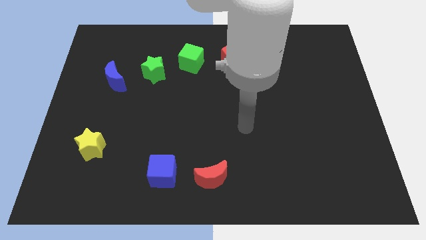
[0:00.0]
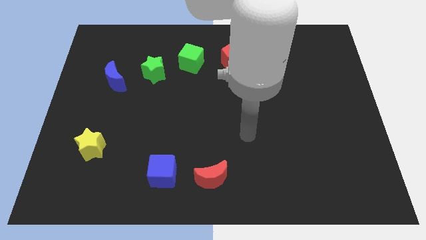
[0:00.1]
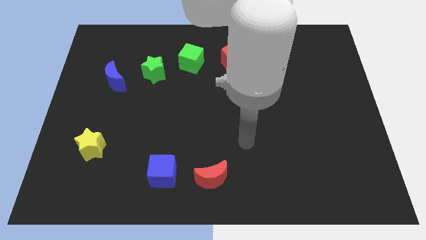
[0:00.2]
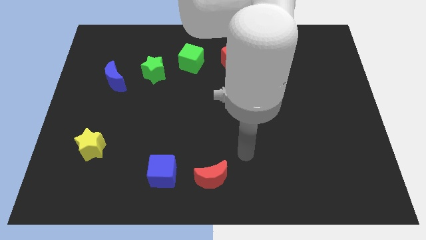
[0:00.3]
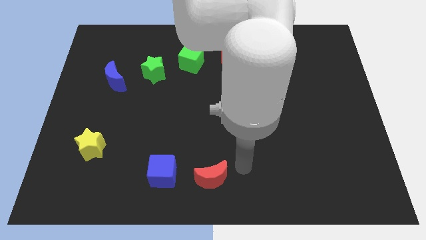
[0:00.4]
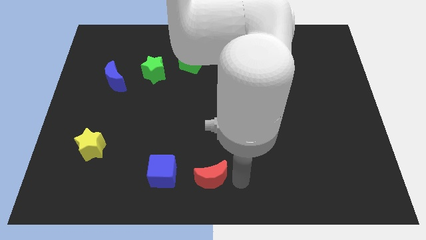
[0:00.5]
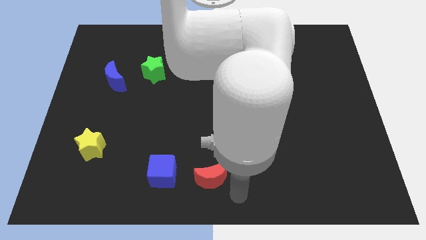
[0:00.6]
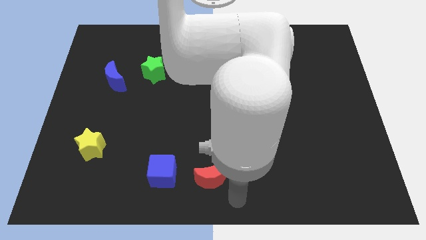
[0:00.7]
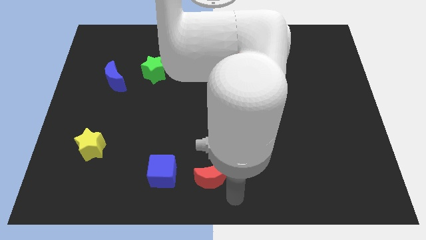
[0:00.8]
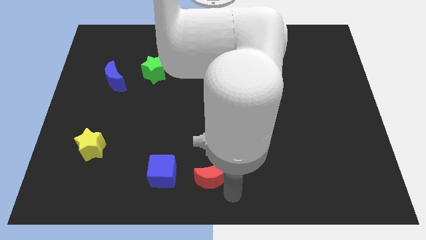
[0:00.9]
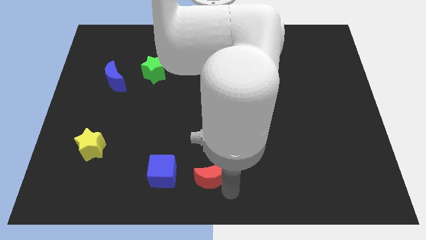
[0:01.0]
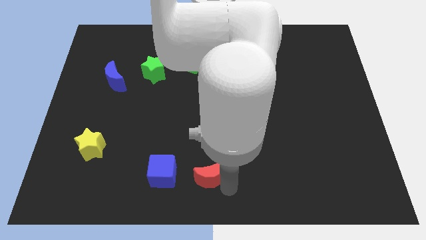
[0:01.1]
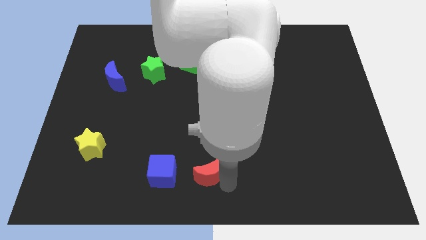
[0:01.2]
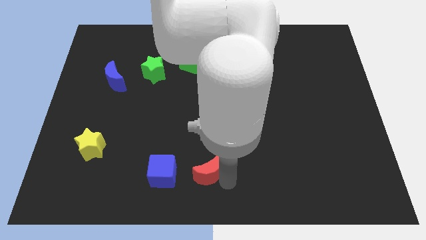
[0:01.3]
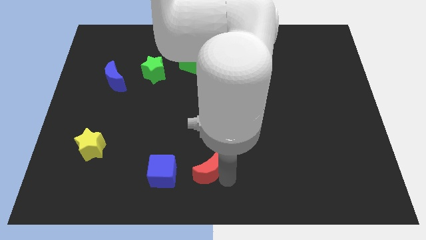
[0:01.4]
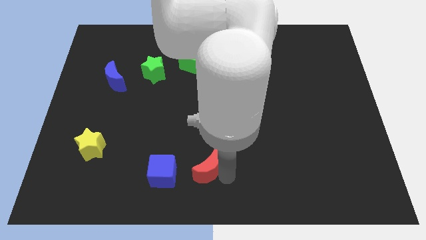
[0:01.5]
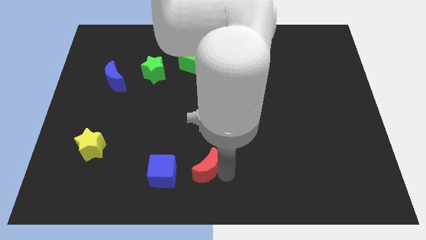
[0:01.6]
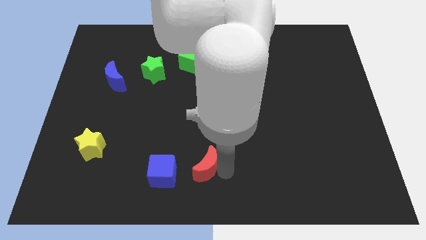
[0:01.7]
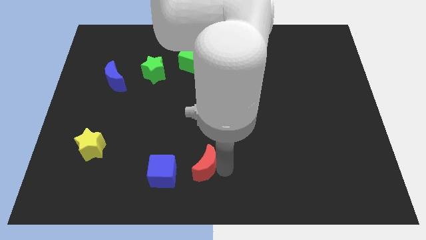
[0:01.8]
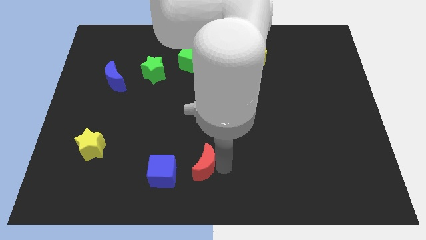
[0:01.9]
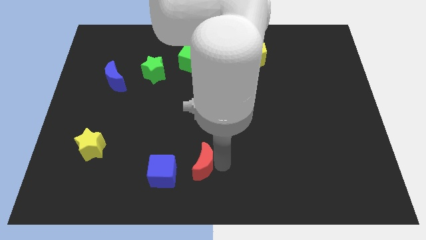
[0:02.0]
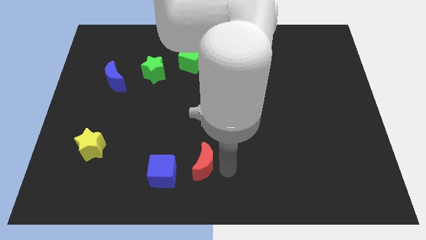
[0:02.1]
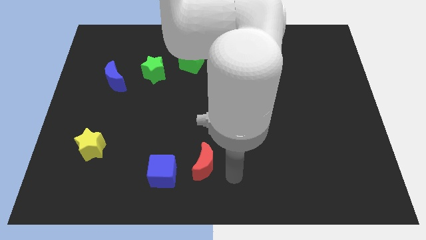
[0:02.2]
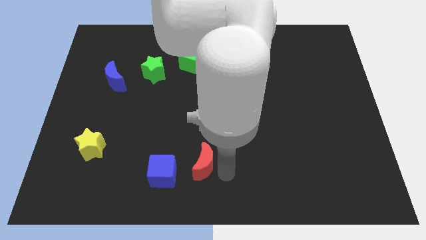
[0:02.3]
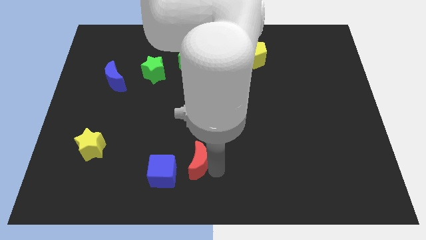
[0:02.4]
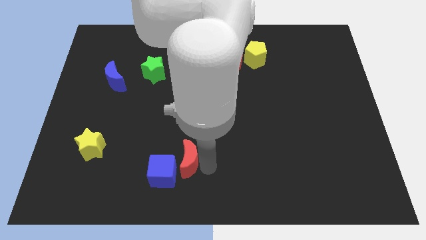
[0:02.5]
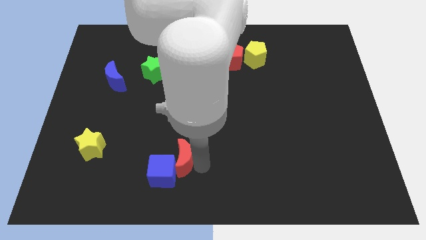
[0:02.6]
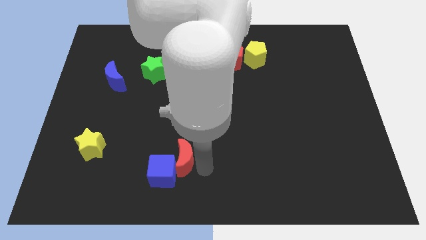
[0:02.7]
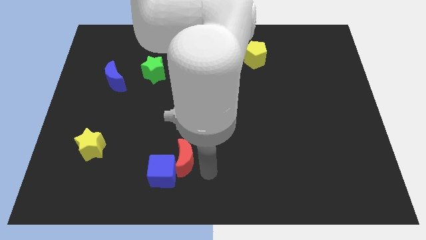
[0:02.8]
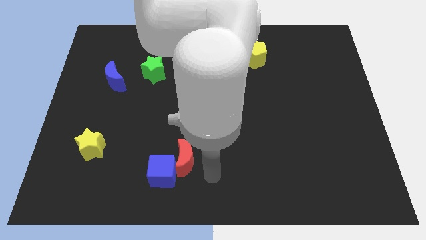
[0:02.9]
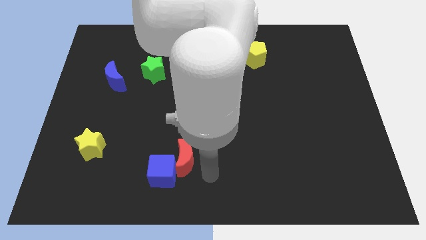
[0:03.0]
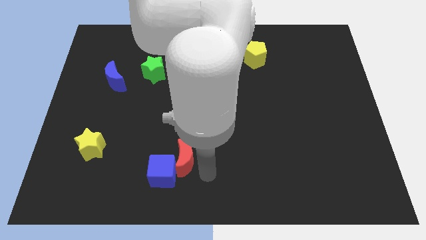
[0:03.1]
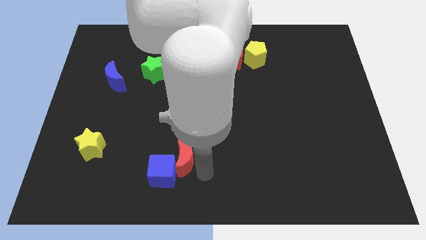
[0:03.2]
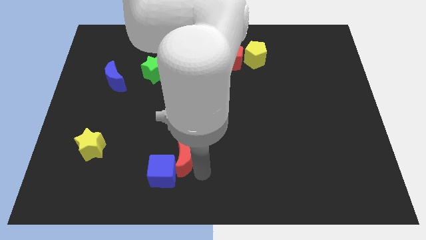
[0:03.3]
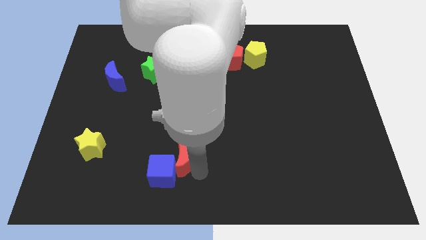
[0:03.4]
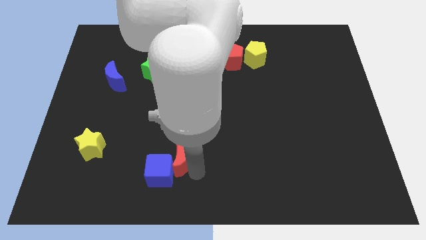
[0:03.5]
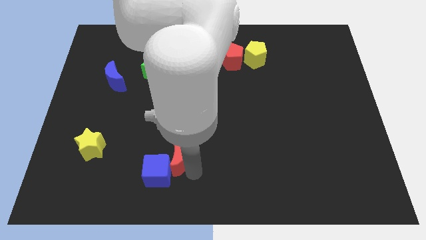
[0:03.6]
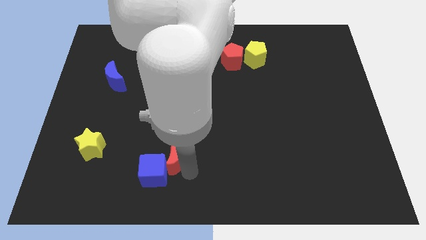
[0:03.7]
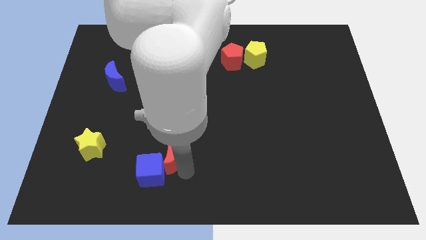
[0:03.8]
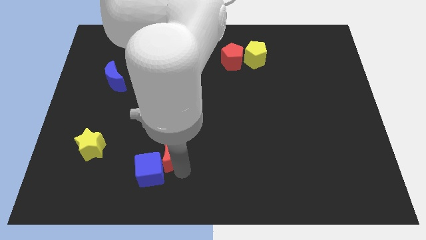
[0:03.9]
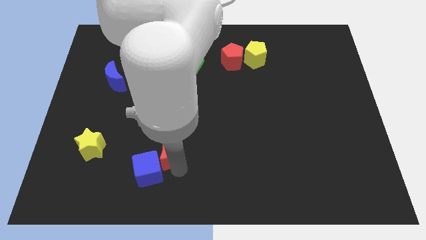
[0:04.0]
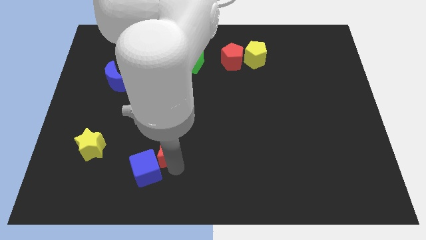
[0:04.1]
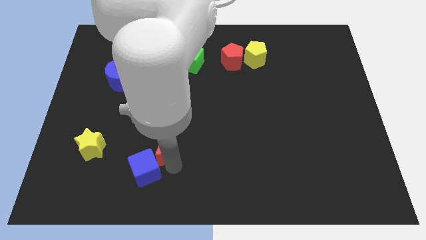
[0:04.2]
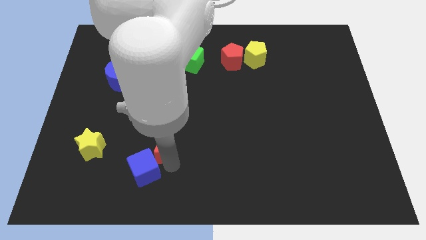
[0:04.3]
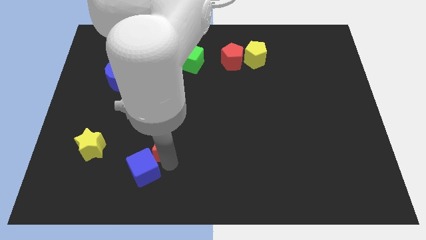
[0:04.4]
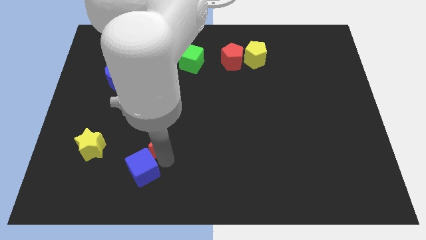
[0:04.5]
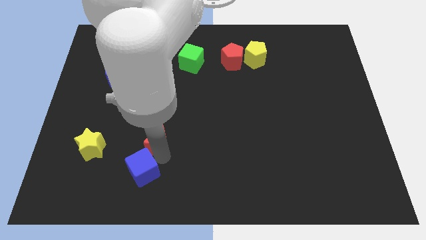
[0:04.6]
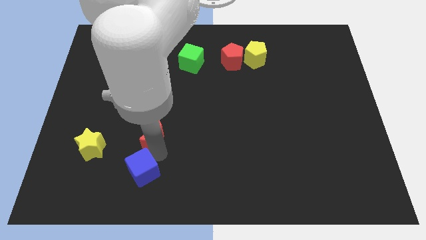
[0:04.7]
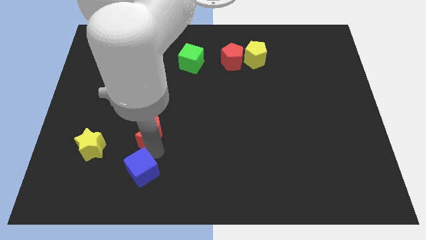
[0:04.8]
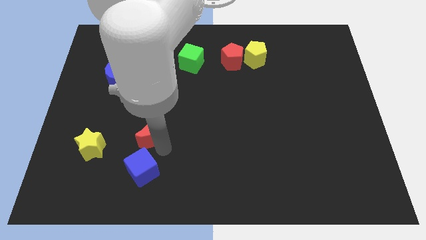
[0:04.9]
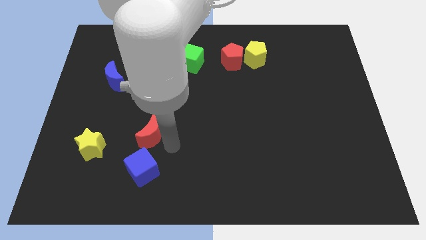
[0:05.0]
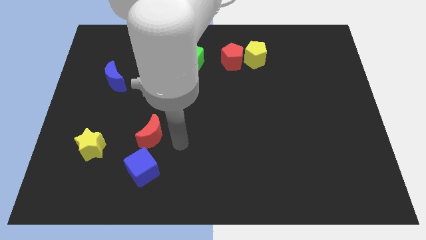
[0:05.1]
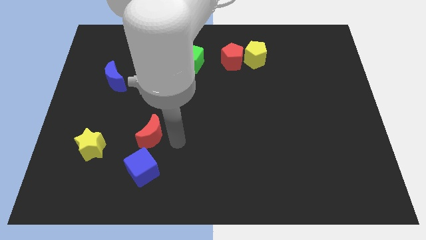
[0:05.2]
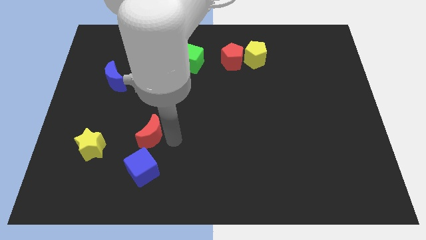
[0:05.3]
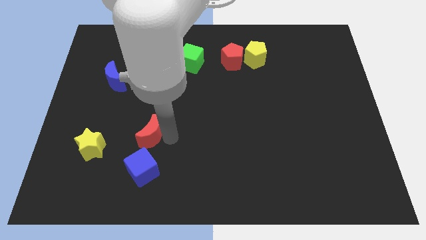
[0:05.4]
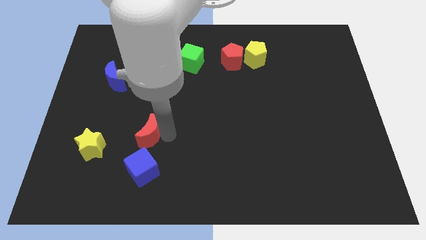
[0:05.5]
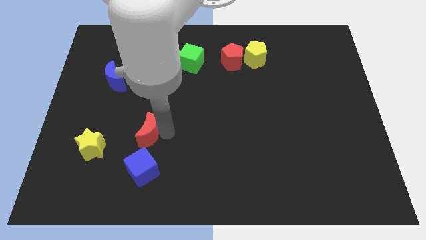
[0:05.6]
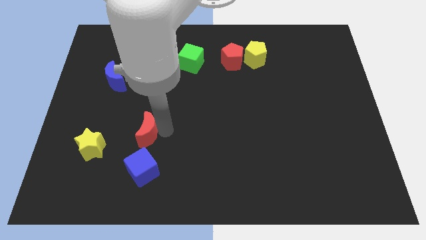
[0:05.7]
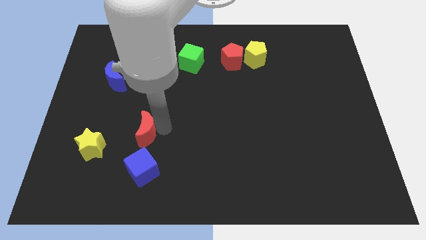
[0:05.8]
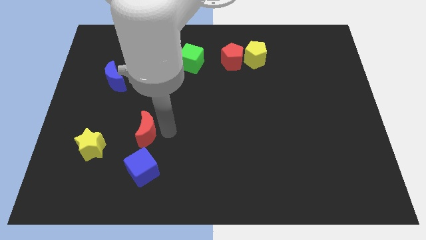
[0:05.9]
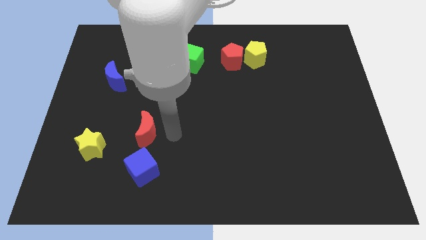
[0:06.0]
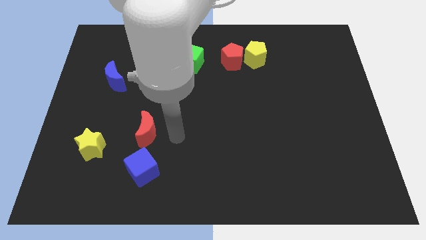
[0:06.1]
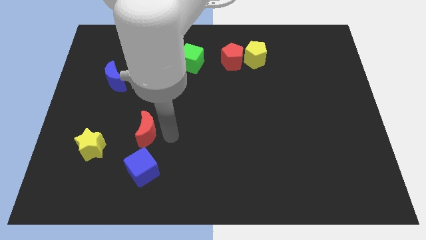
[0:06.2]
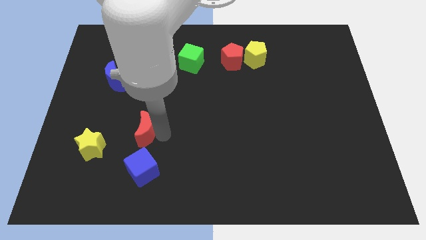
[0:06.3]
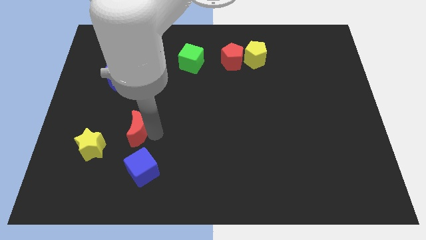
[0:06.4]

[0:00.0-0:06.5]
put the red moon to the top right side of the yellow star

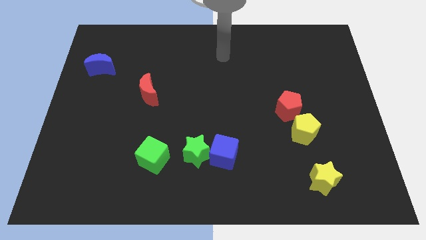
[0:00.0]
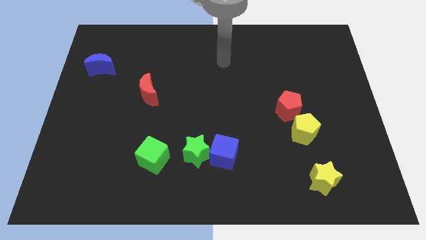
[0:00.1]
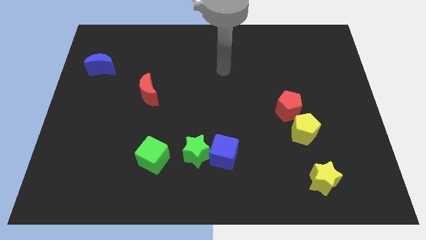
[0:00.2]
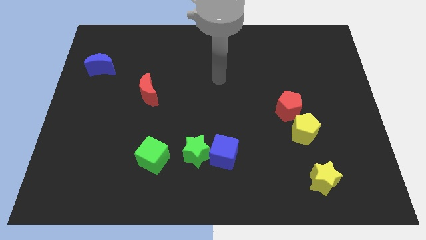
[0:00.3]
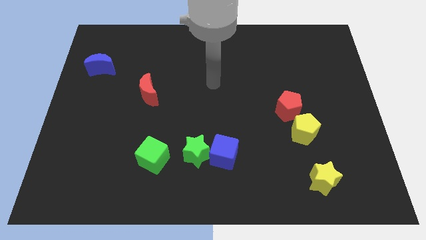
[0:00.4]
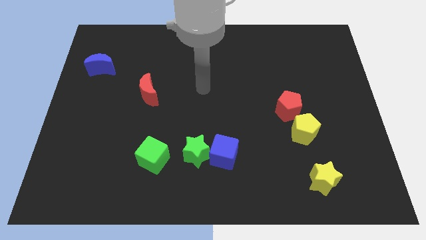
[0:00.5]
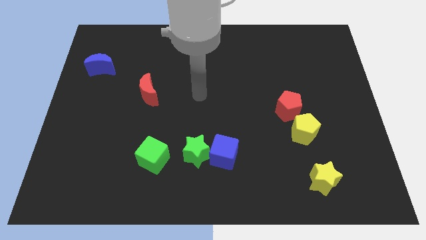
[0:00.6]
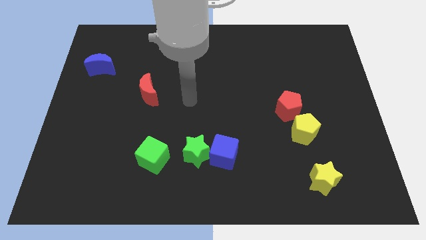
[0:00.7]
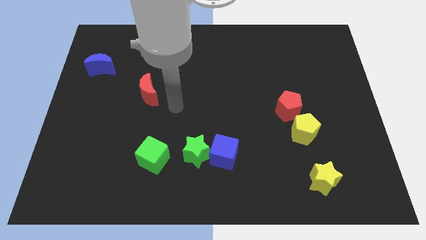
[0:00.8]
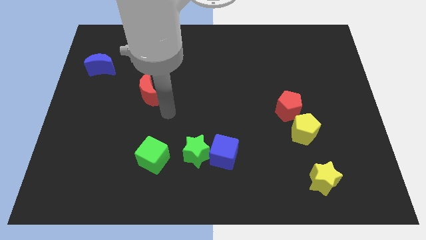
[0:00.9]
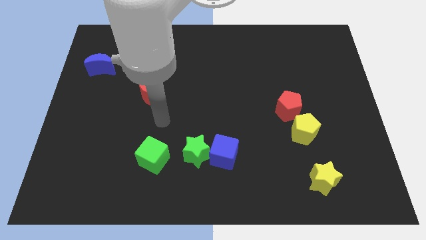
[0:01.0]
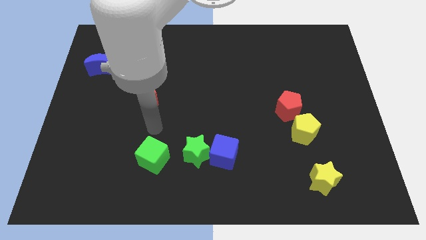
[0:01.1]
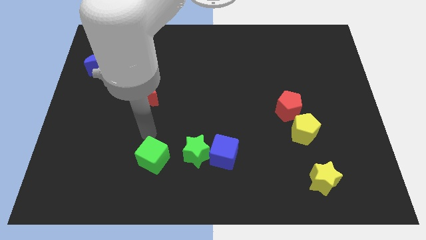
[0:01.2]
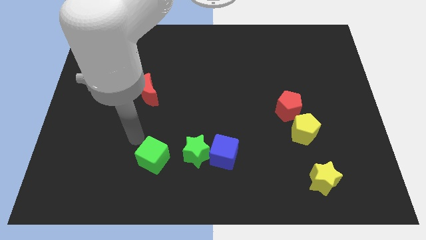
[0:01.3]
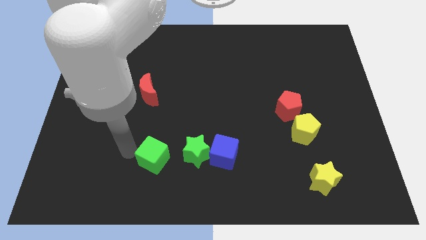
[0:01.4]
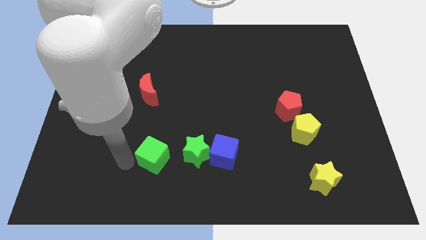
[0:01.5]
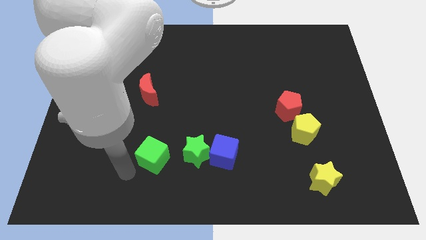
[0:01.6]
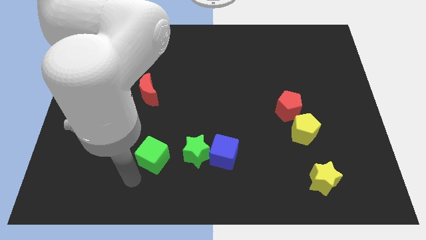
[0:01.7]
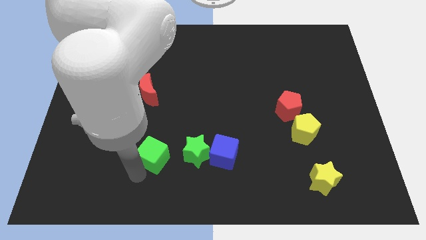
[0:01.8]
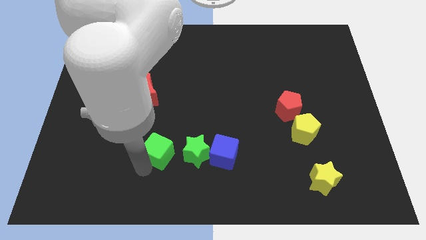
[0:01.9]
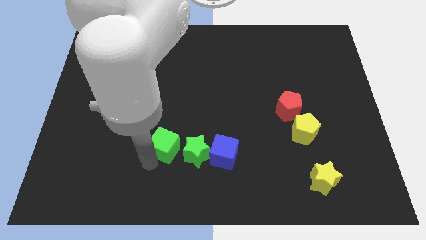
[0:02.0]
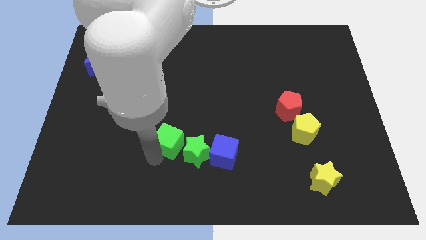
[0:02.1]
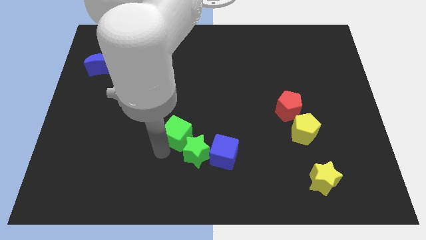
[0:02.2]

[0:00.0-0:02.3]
move the green cube to the top side of the green star
